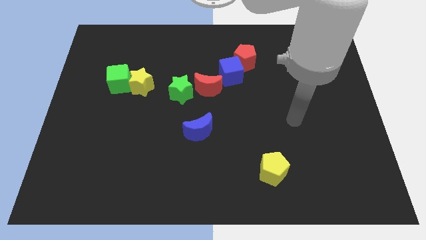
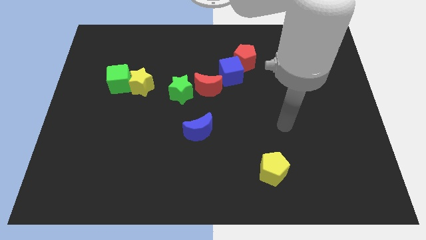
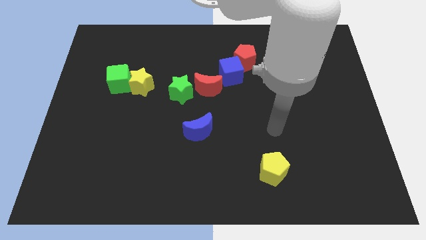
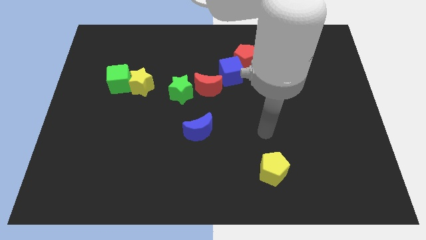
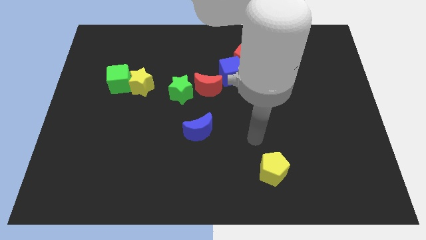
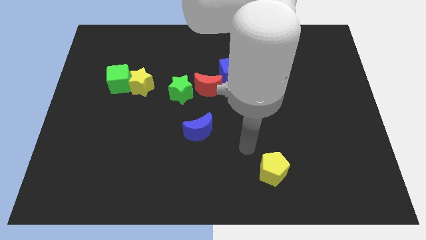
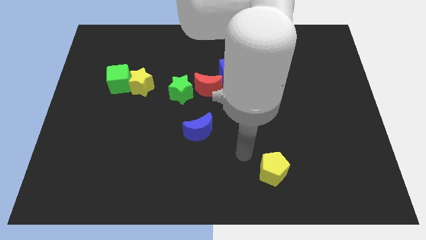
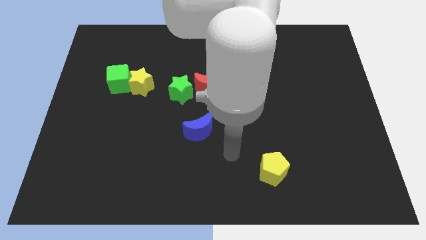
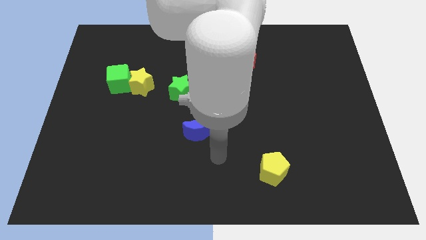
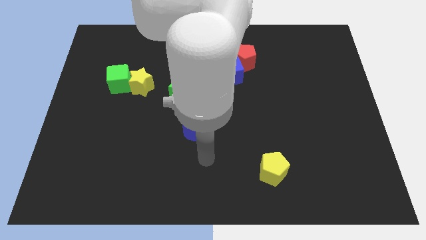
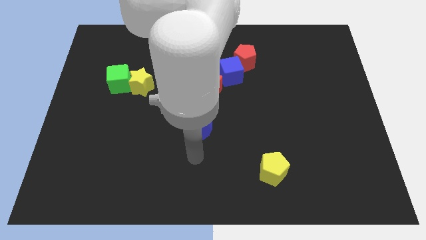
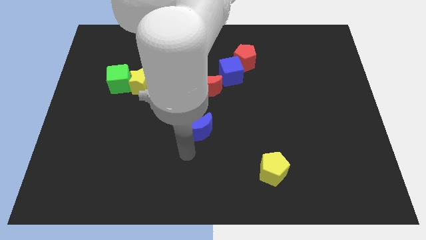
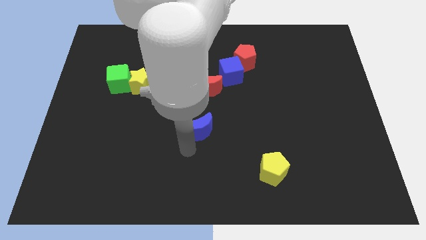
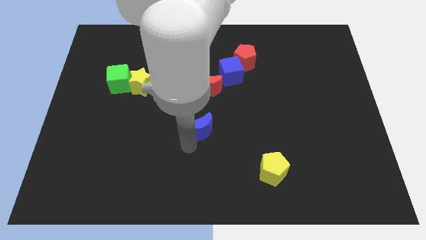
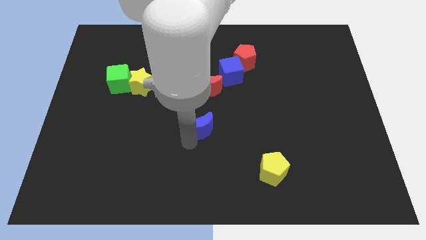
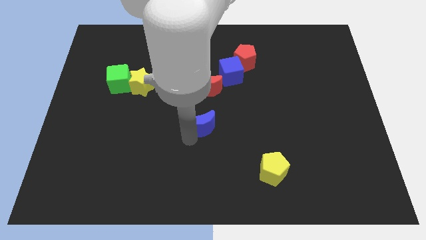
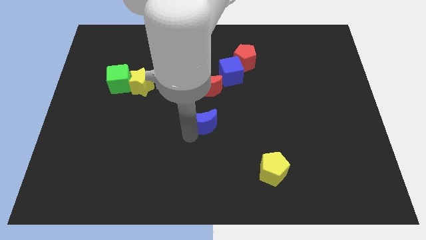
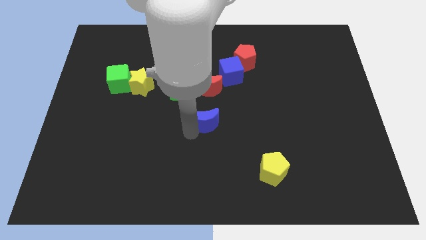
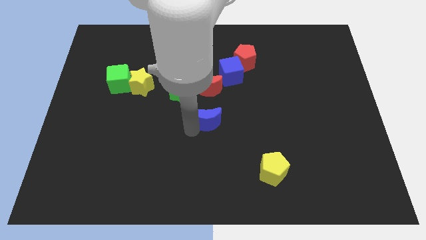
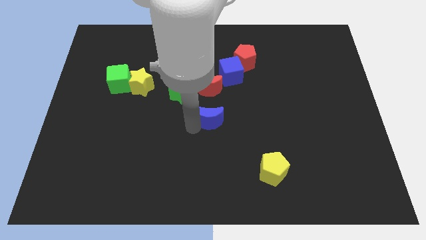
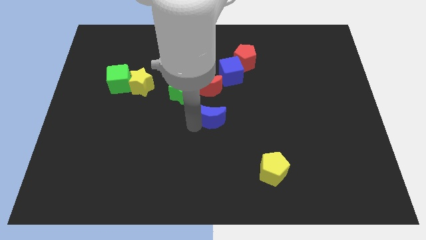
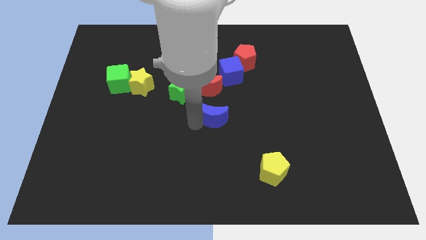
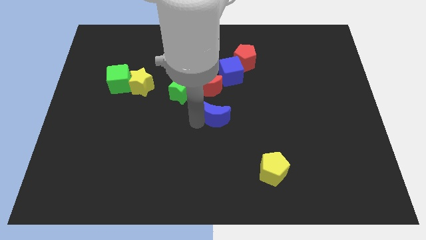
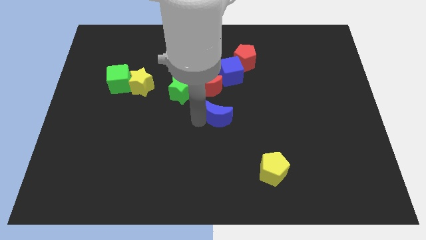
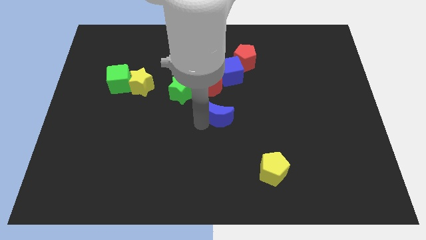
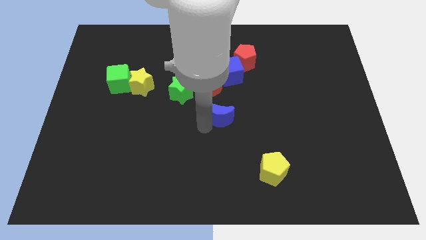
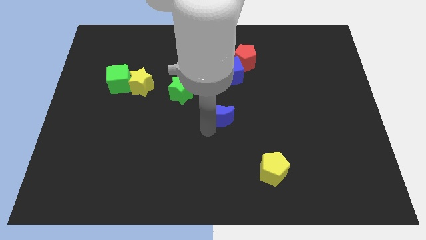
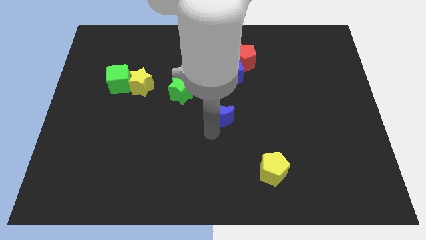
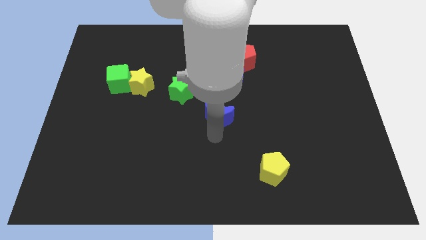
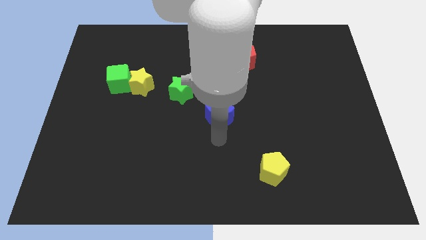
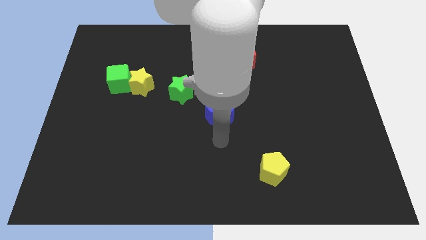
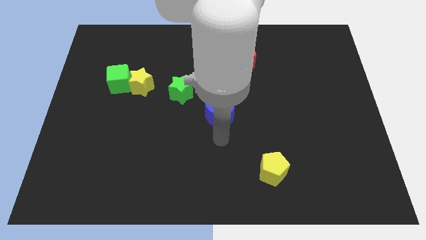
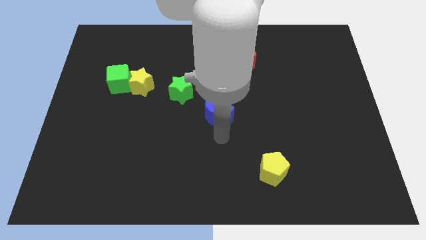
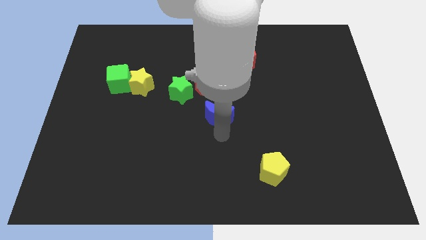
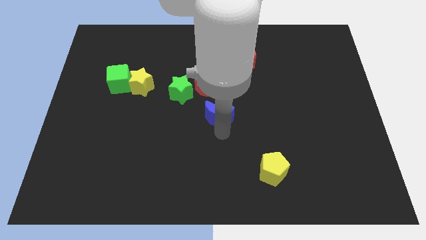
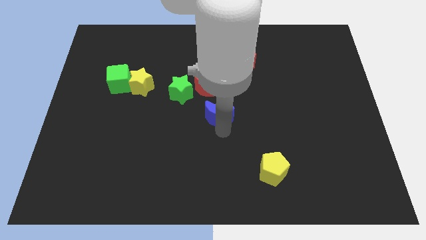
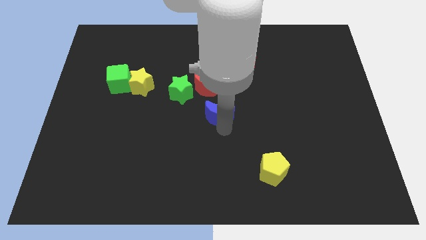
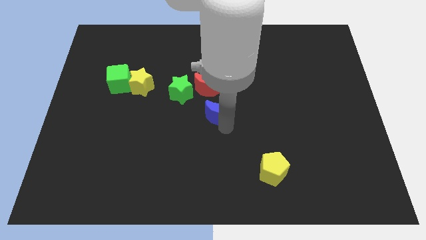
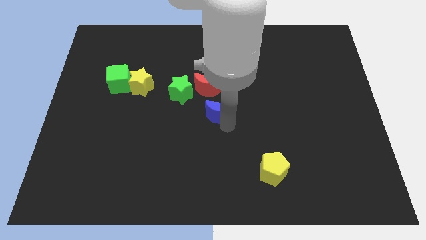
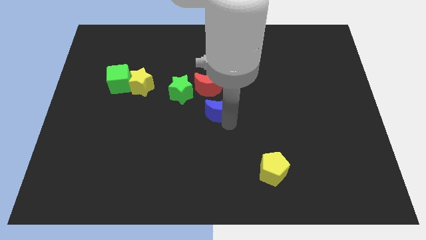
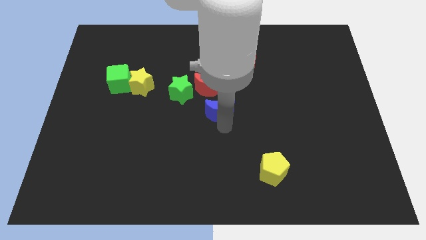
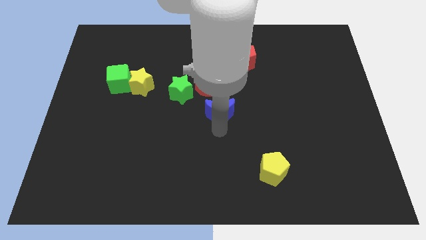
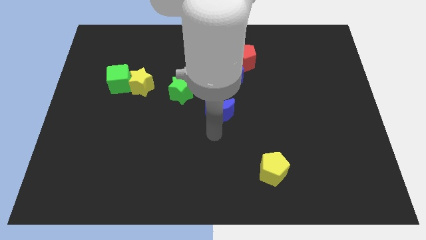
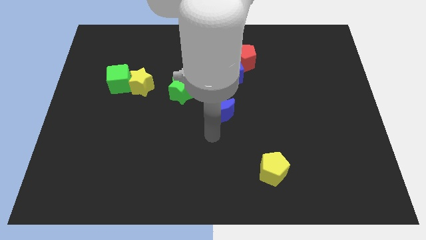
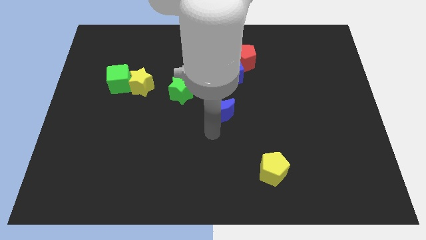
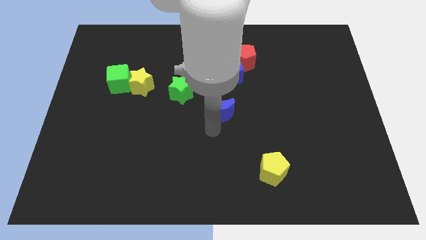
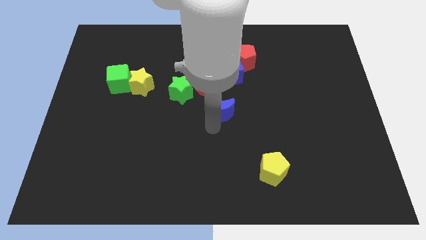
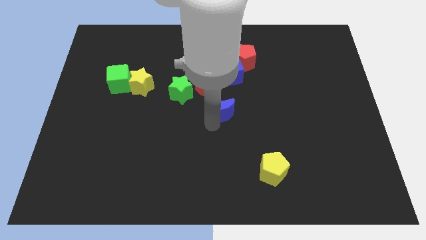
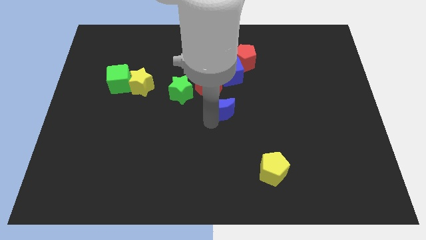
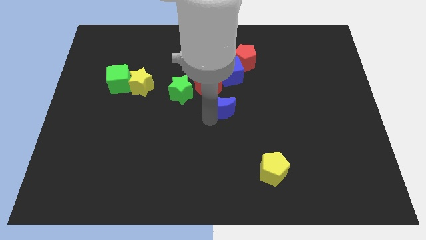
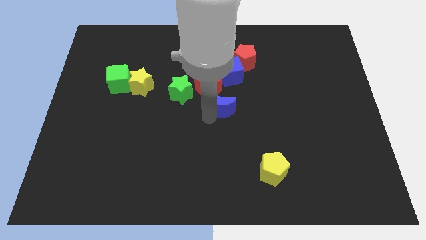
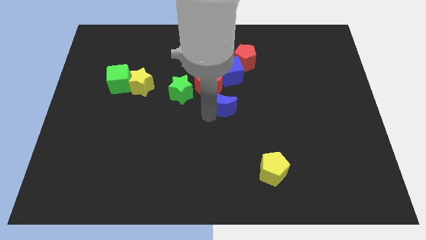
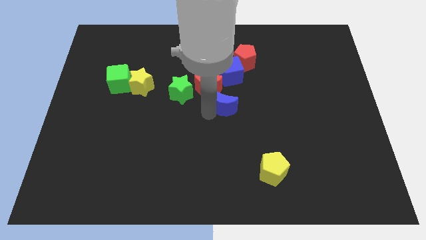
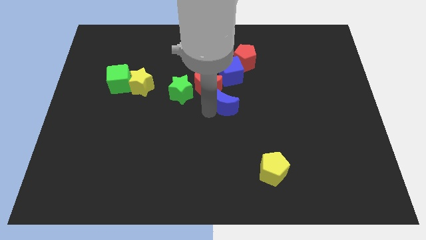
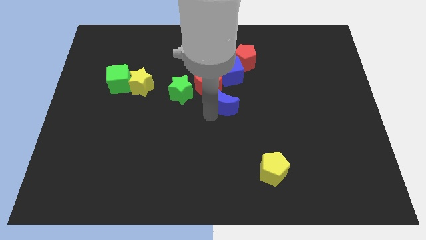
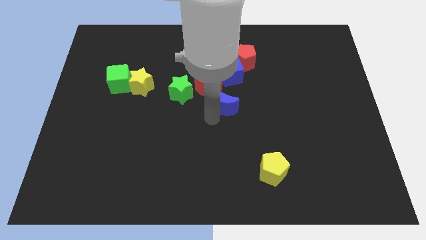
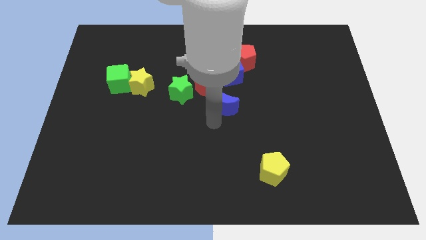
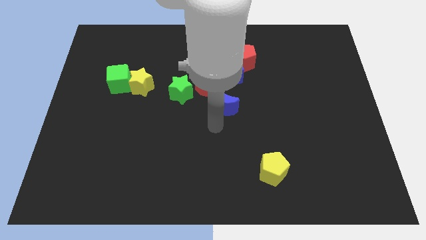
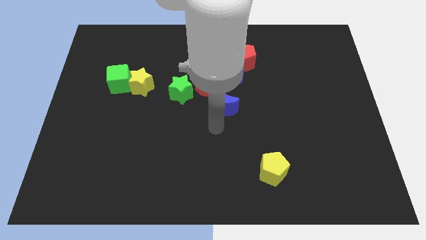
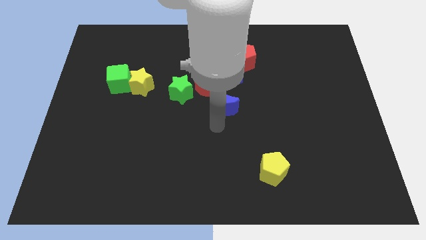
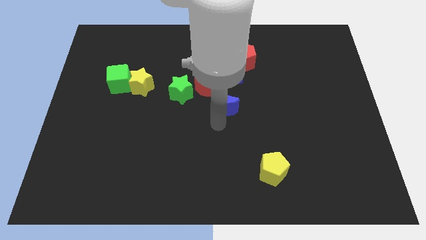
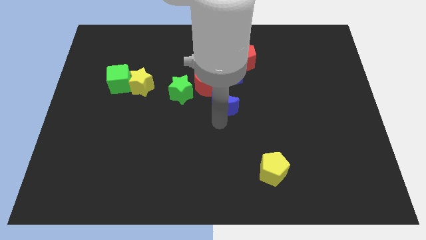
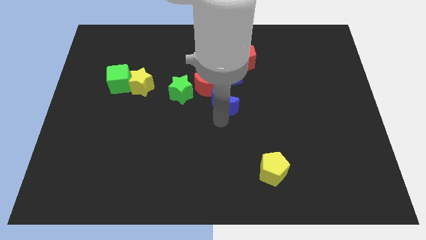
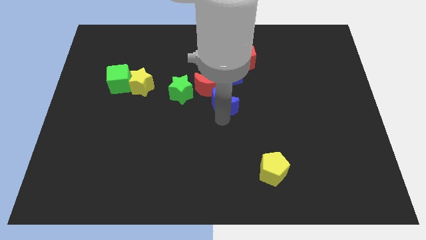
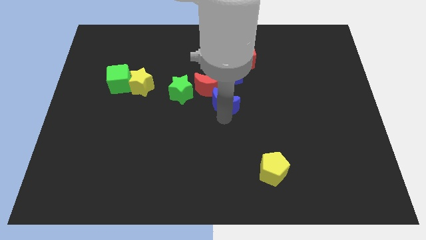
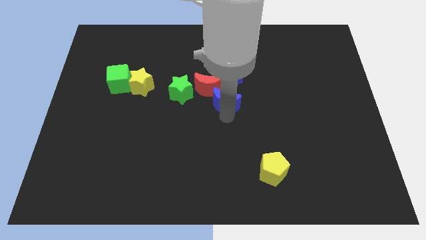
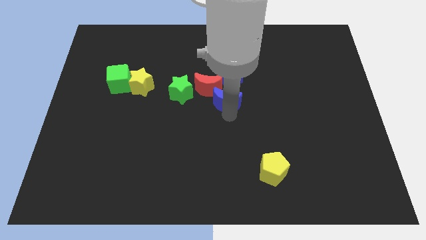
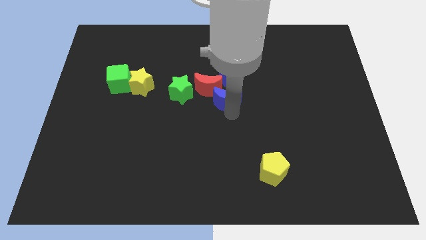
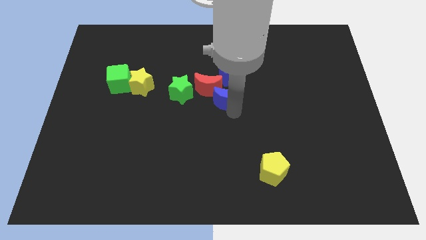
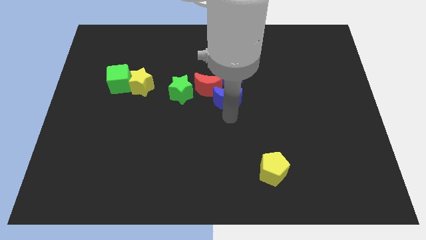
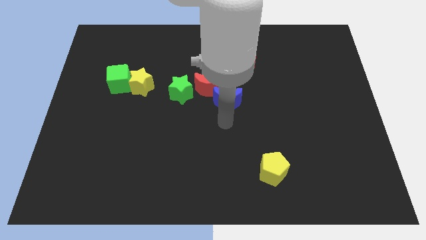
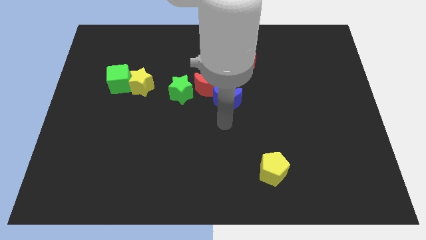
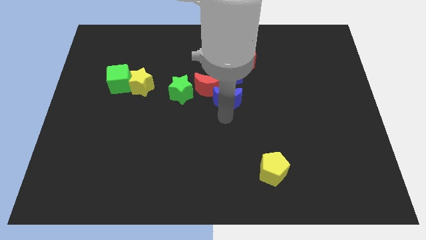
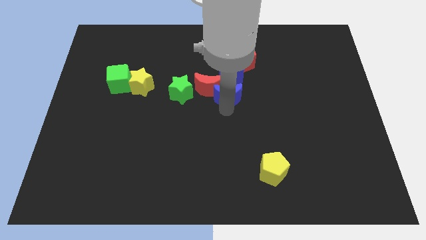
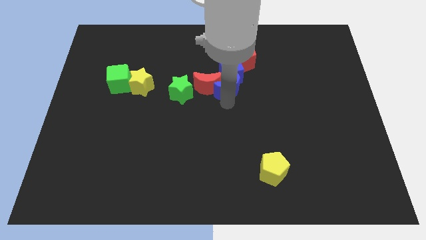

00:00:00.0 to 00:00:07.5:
slide the blue moon to the blue cube

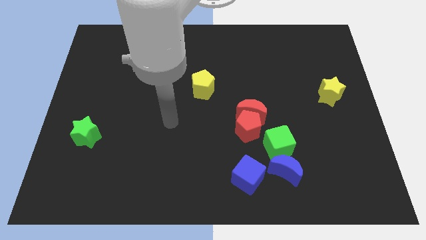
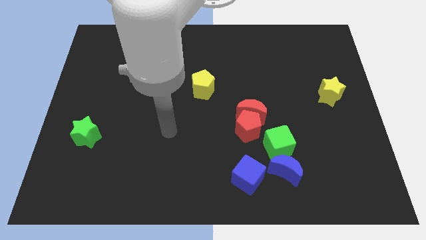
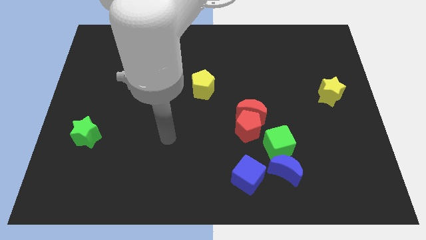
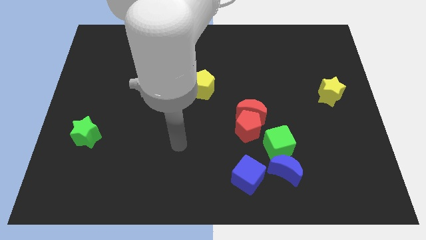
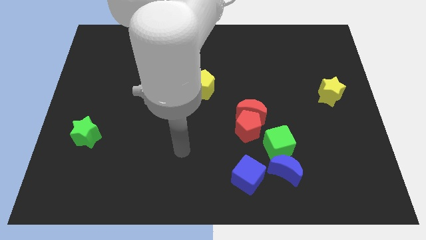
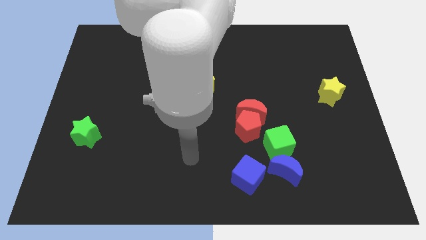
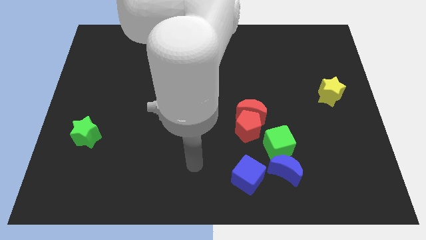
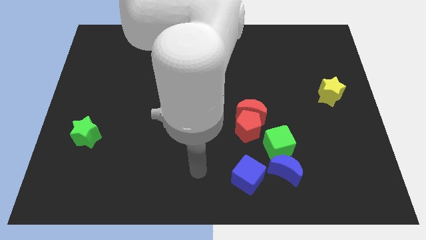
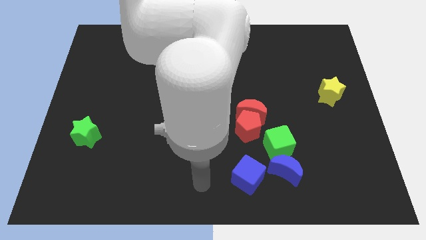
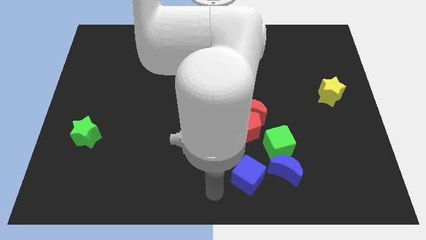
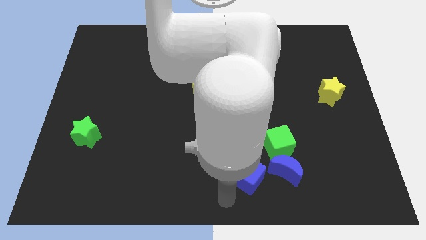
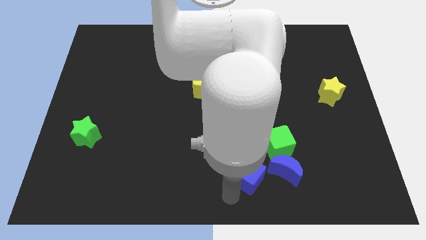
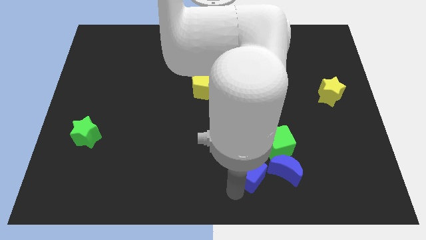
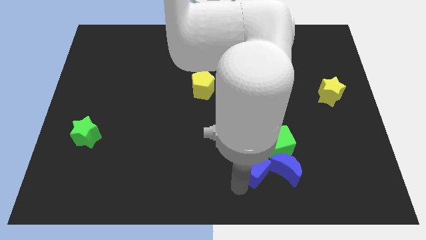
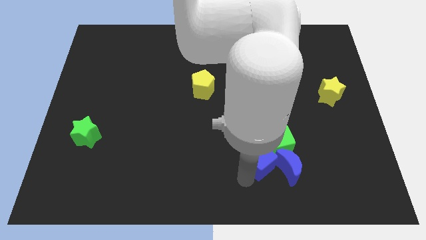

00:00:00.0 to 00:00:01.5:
slide the blue cube close to the green cube
